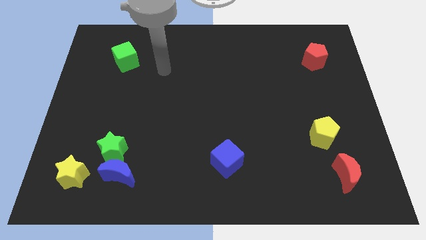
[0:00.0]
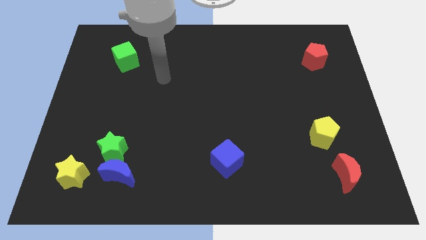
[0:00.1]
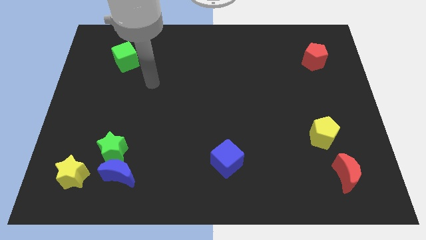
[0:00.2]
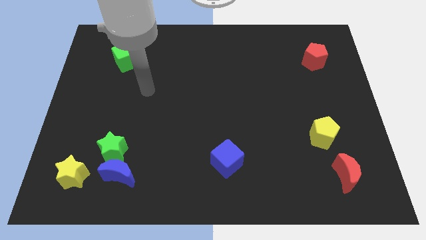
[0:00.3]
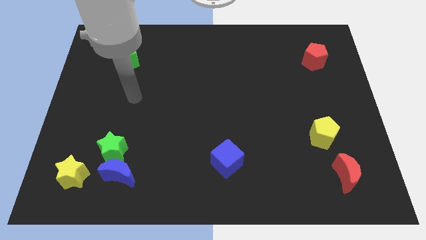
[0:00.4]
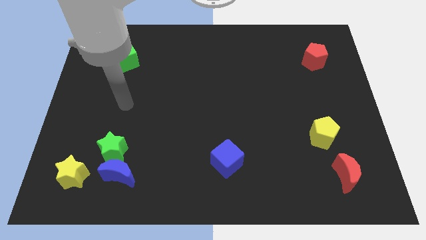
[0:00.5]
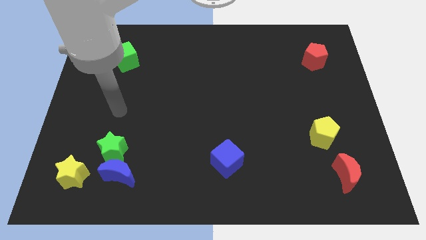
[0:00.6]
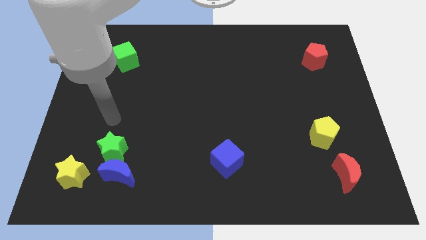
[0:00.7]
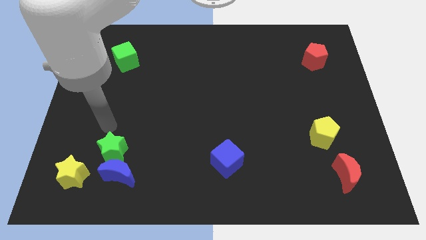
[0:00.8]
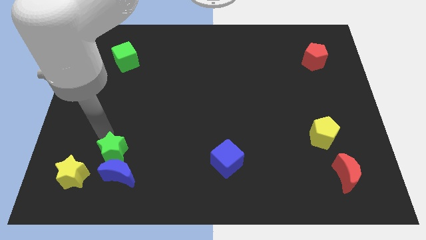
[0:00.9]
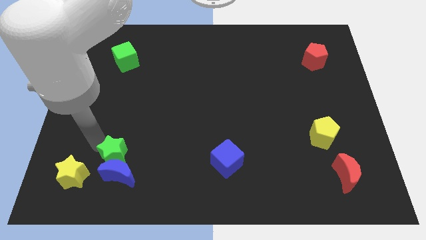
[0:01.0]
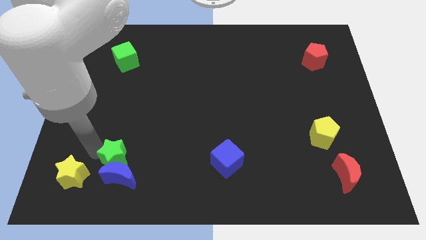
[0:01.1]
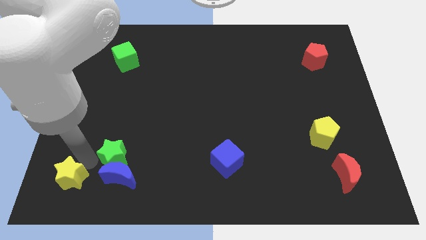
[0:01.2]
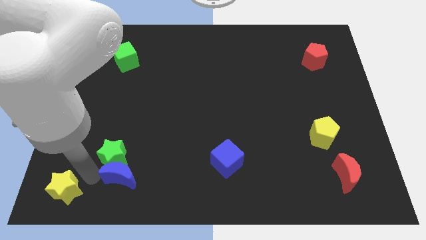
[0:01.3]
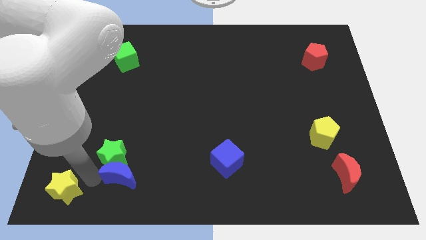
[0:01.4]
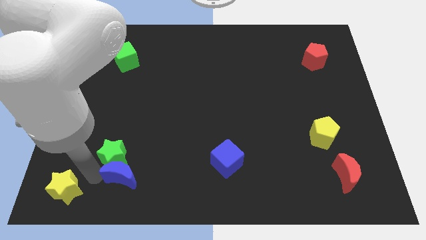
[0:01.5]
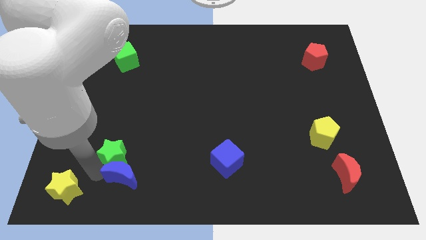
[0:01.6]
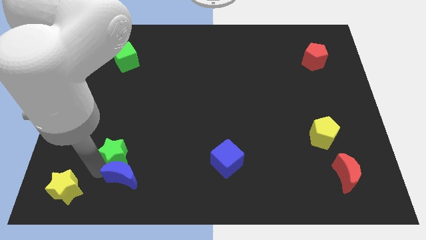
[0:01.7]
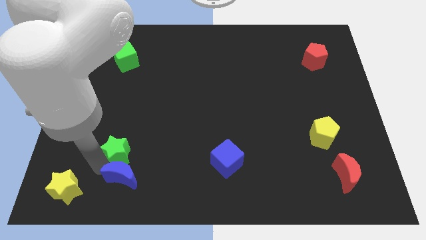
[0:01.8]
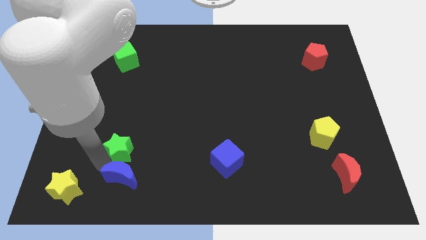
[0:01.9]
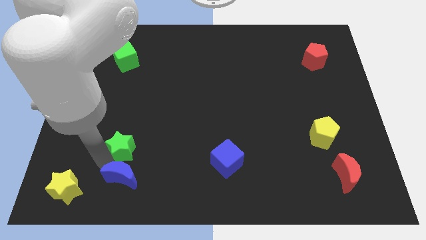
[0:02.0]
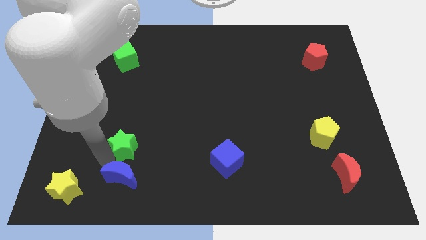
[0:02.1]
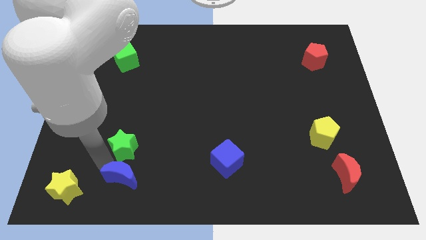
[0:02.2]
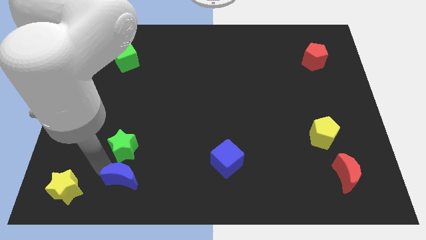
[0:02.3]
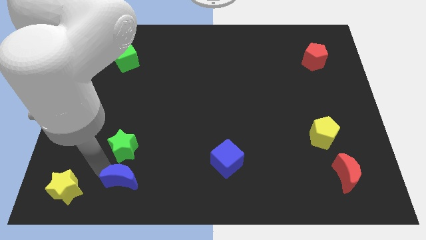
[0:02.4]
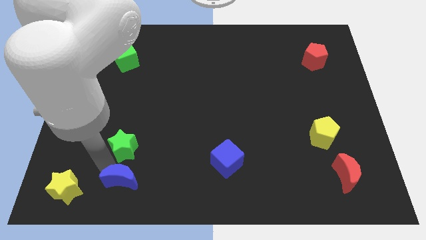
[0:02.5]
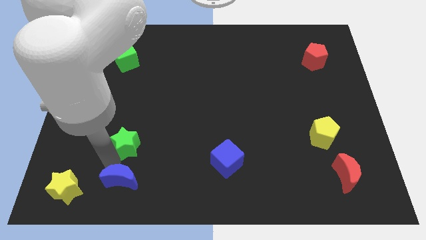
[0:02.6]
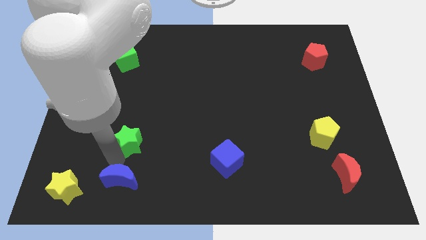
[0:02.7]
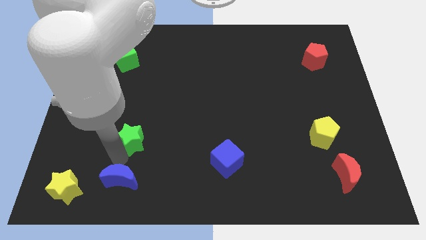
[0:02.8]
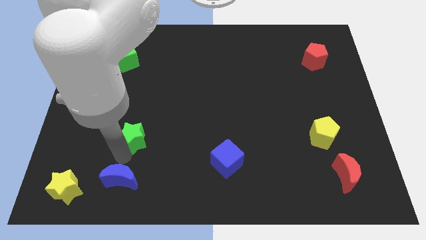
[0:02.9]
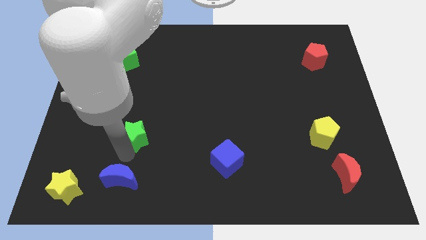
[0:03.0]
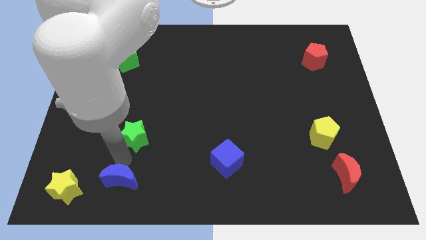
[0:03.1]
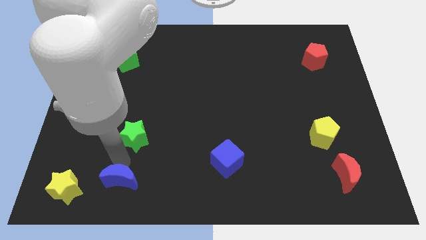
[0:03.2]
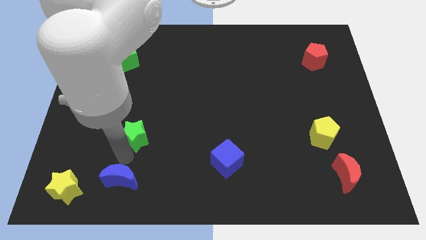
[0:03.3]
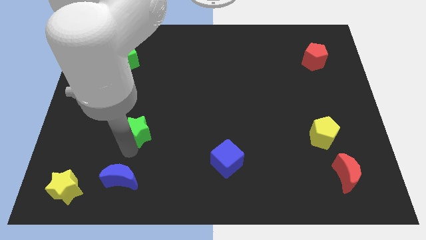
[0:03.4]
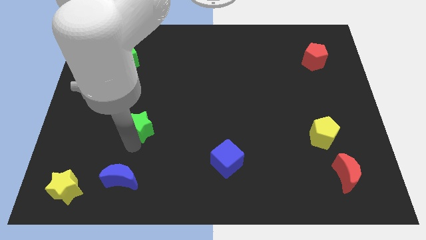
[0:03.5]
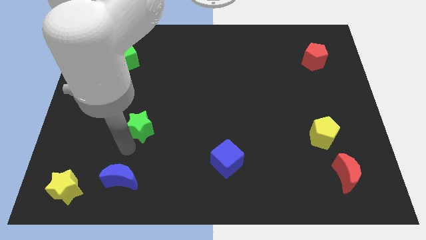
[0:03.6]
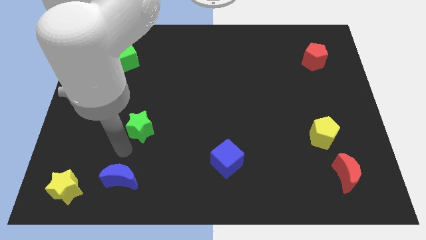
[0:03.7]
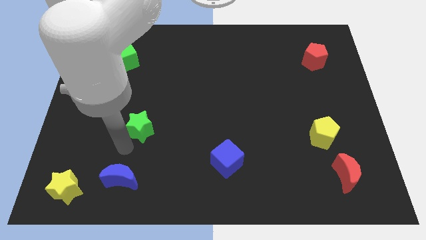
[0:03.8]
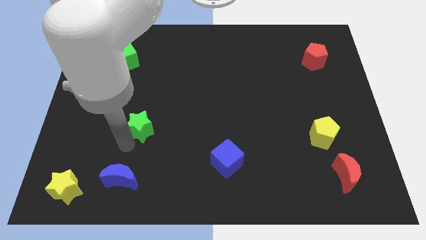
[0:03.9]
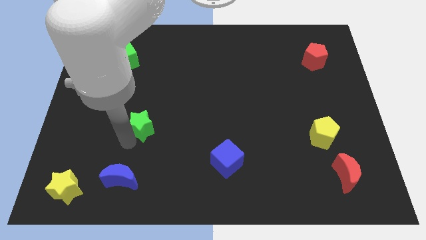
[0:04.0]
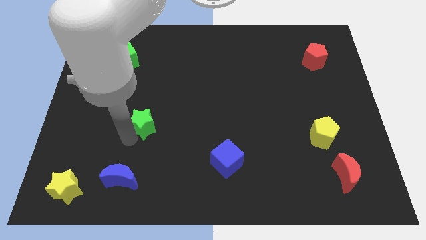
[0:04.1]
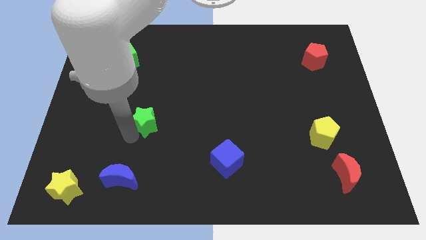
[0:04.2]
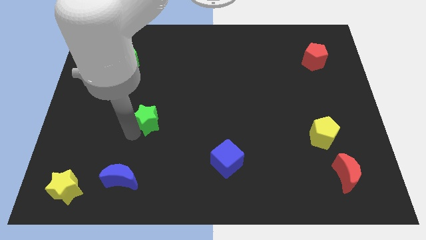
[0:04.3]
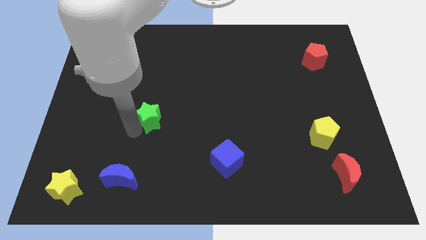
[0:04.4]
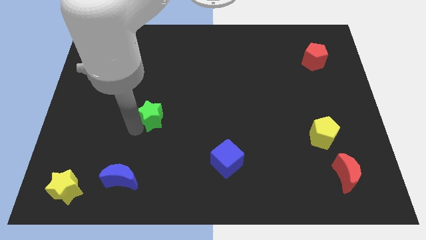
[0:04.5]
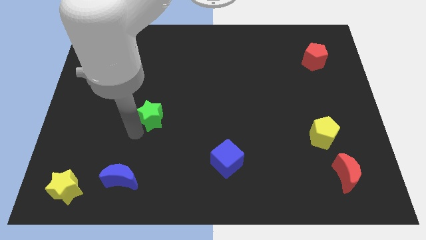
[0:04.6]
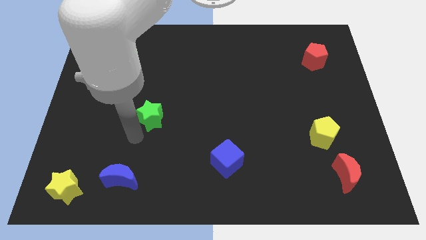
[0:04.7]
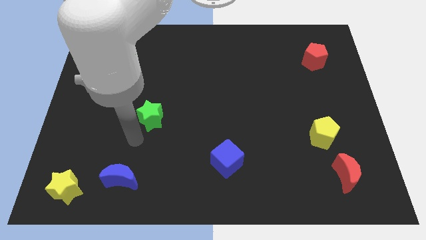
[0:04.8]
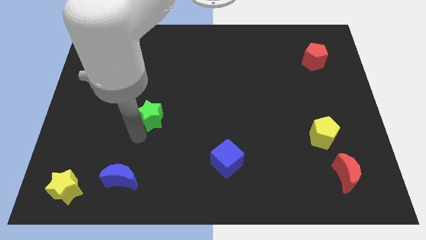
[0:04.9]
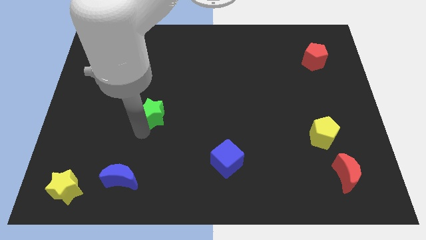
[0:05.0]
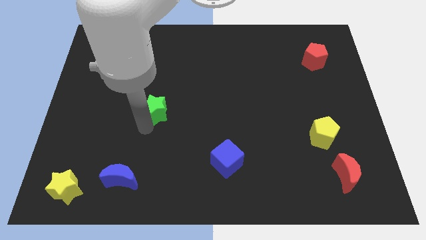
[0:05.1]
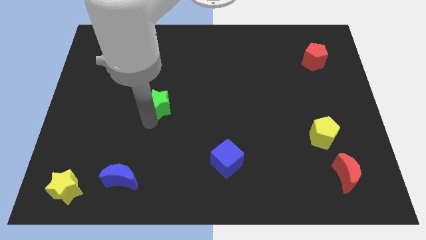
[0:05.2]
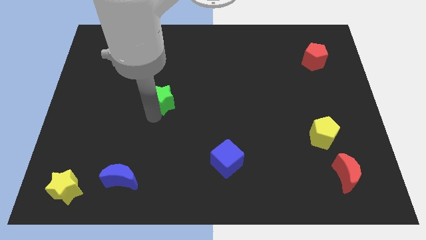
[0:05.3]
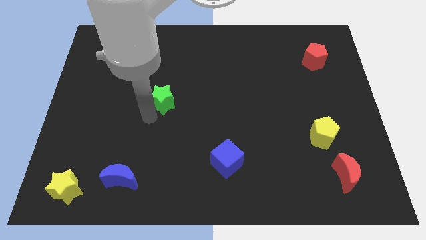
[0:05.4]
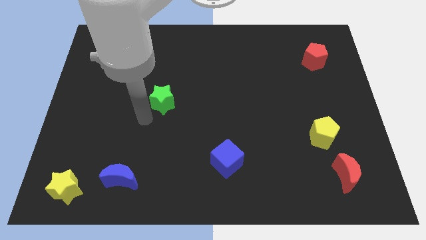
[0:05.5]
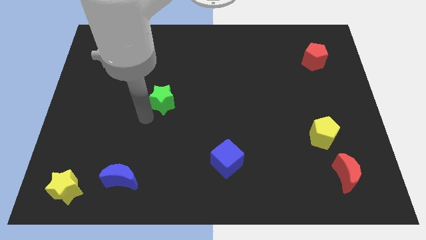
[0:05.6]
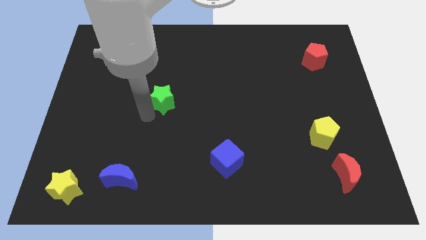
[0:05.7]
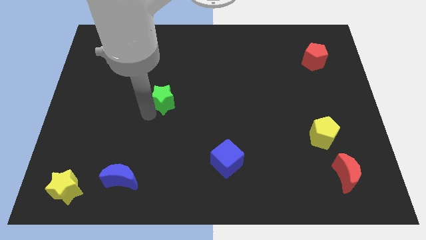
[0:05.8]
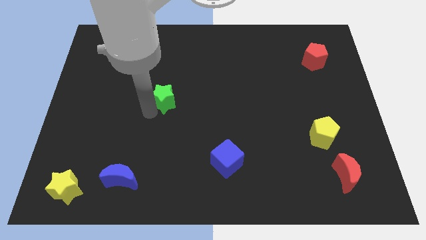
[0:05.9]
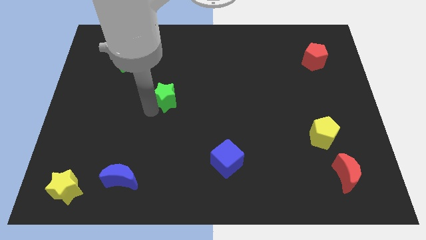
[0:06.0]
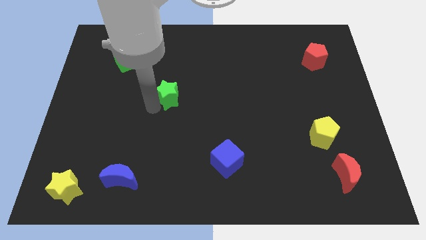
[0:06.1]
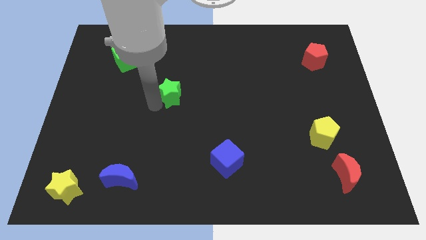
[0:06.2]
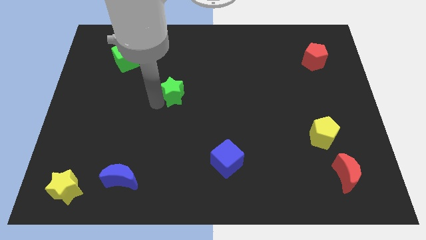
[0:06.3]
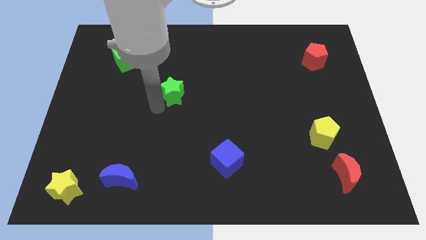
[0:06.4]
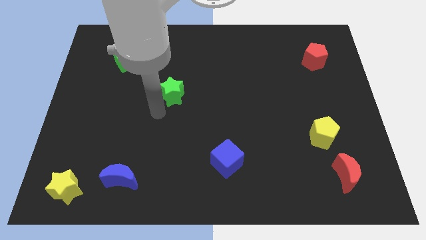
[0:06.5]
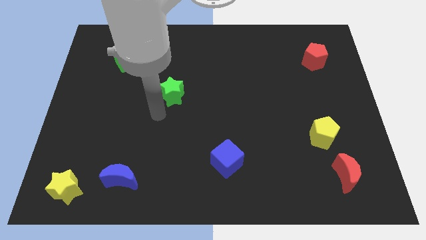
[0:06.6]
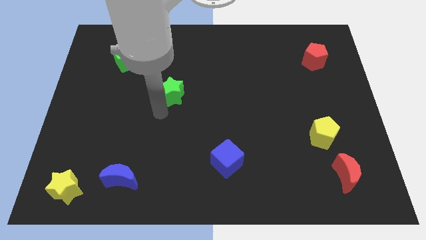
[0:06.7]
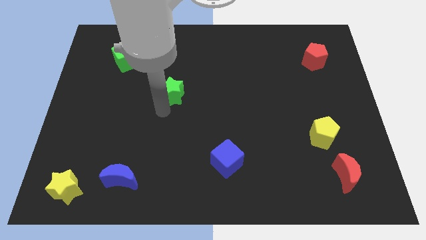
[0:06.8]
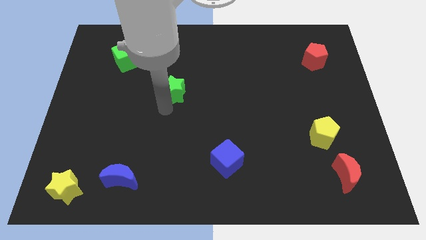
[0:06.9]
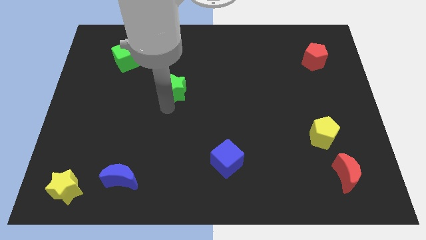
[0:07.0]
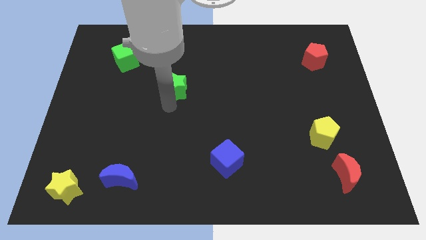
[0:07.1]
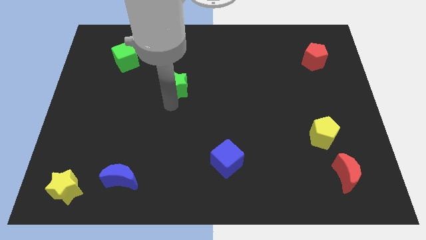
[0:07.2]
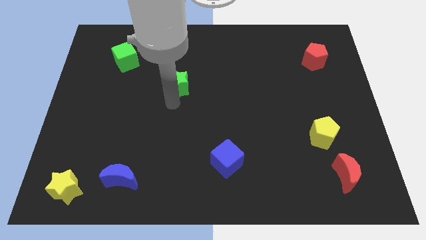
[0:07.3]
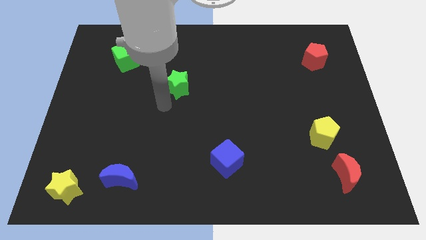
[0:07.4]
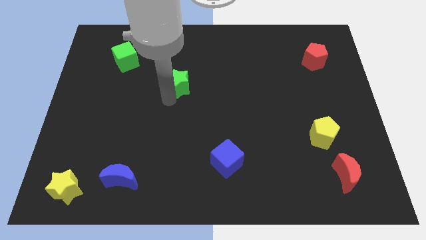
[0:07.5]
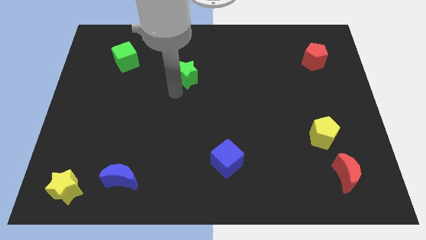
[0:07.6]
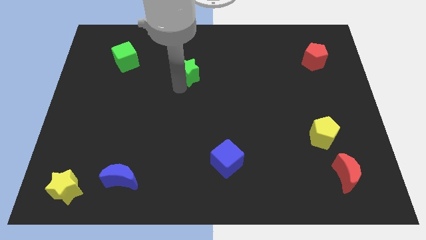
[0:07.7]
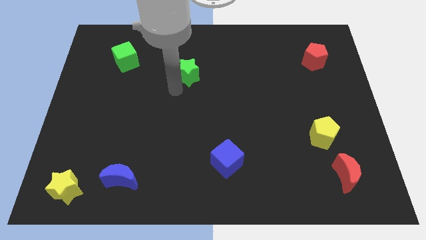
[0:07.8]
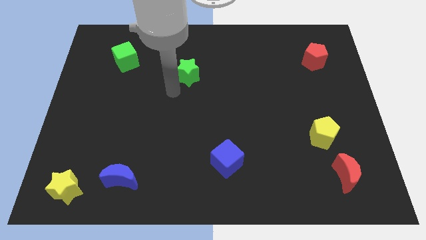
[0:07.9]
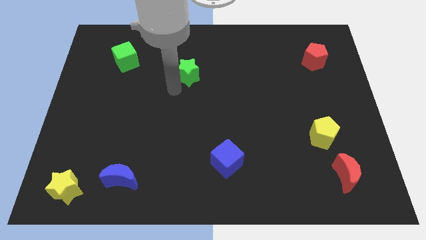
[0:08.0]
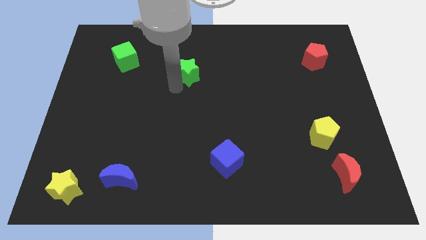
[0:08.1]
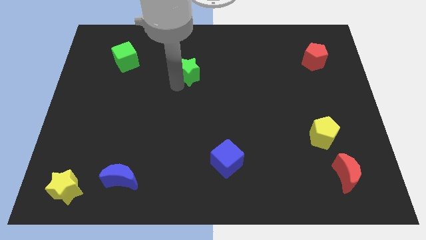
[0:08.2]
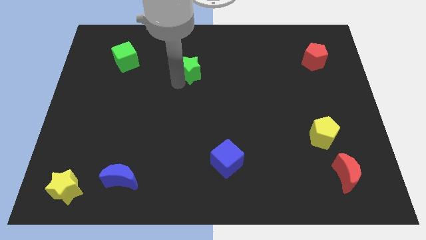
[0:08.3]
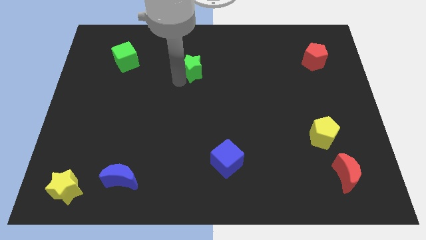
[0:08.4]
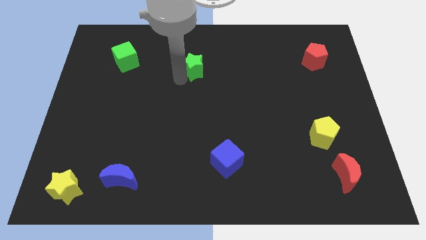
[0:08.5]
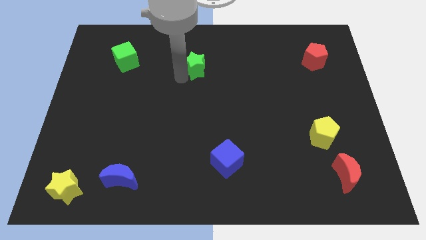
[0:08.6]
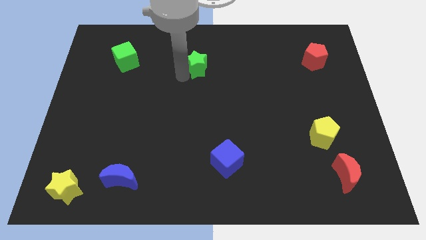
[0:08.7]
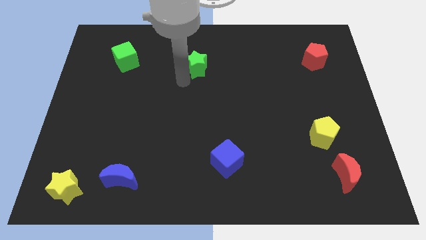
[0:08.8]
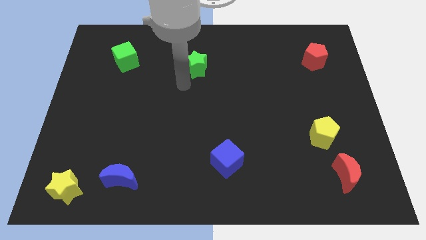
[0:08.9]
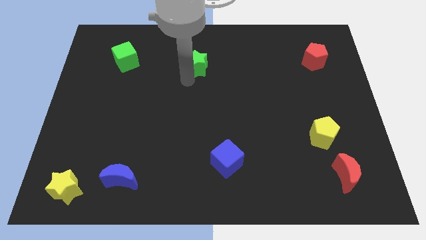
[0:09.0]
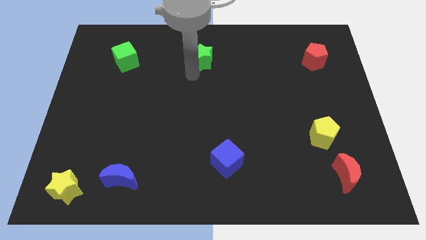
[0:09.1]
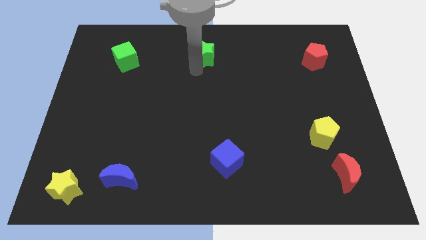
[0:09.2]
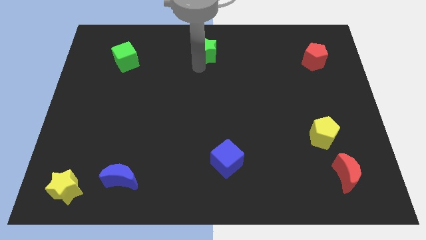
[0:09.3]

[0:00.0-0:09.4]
push the green star to the towards your base
